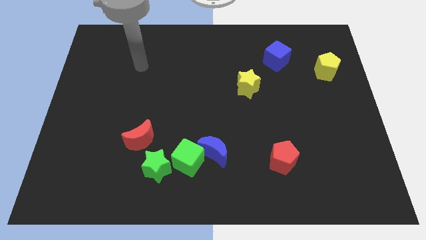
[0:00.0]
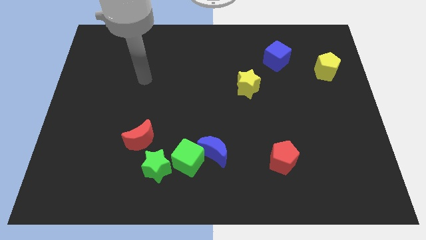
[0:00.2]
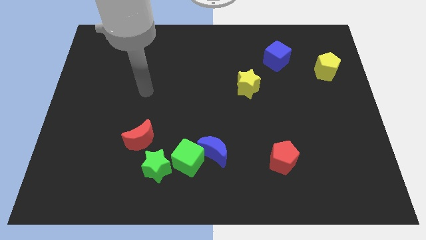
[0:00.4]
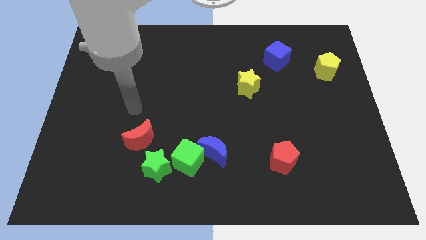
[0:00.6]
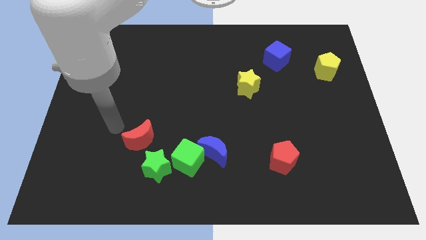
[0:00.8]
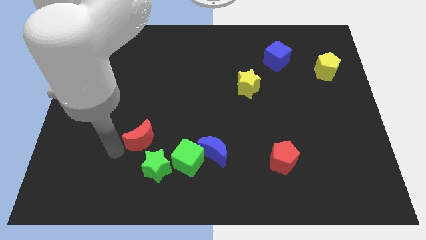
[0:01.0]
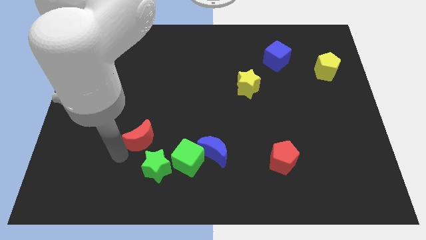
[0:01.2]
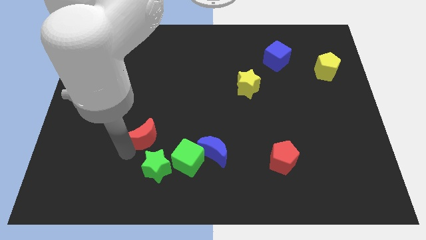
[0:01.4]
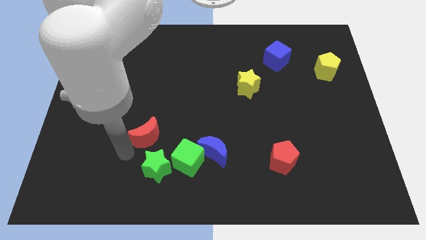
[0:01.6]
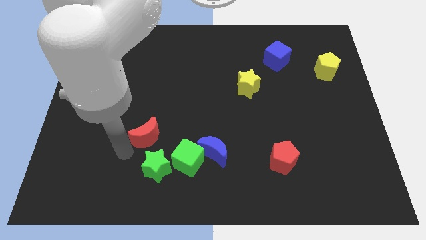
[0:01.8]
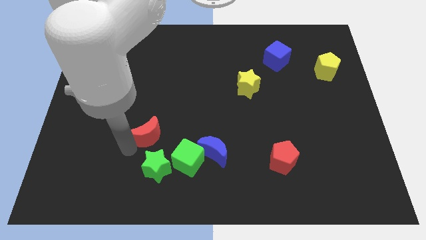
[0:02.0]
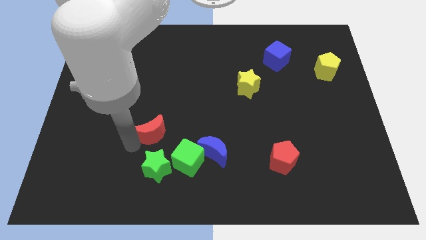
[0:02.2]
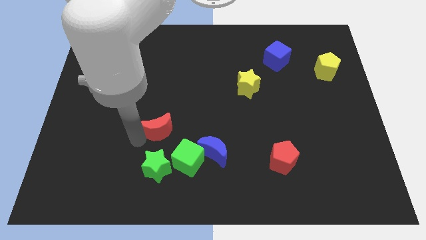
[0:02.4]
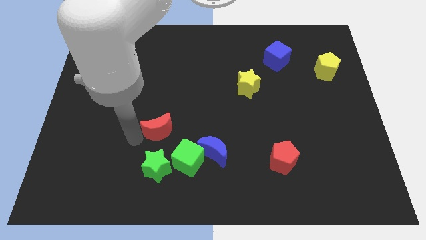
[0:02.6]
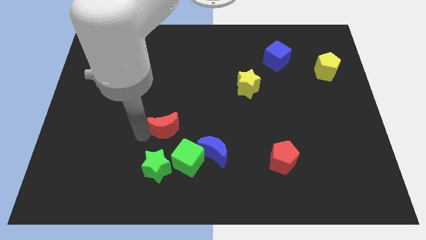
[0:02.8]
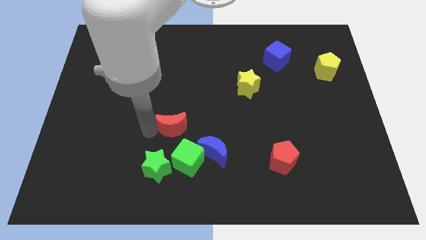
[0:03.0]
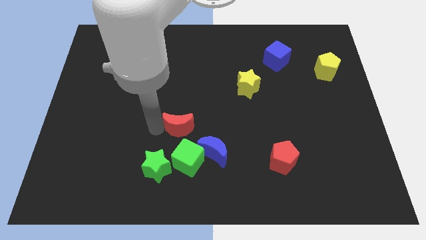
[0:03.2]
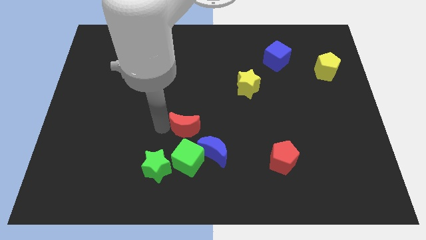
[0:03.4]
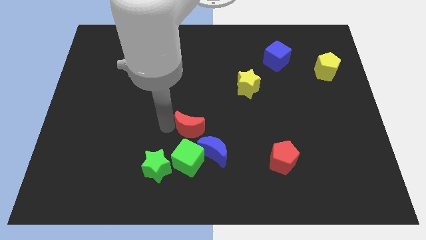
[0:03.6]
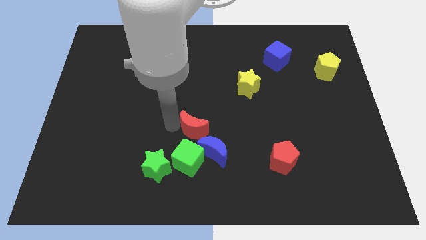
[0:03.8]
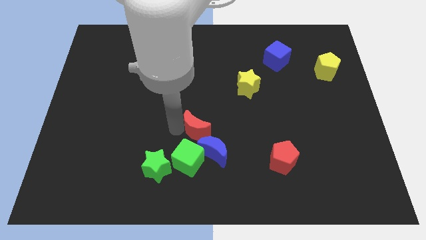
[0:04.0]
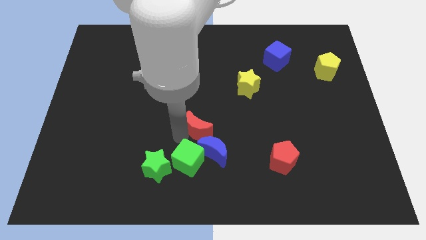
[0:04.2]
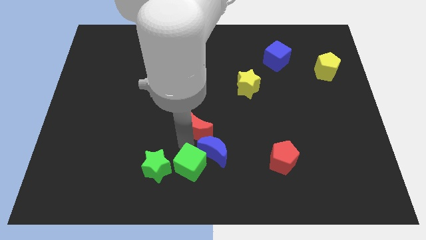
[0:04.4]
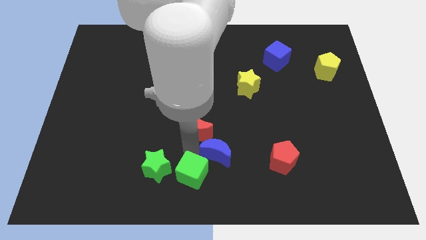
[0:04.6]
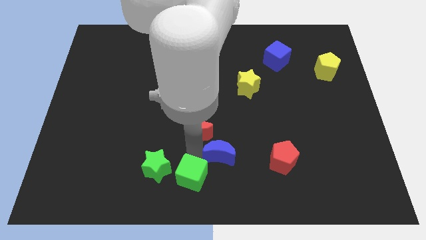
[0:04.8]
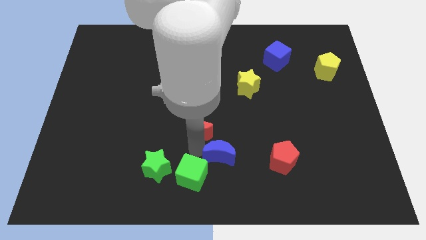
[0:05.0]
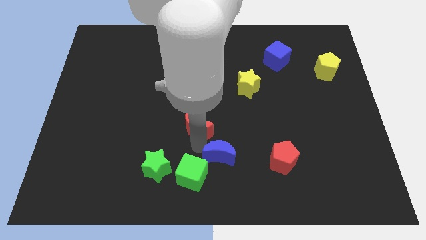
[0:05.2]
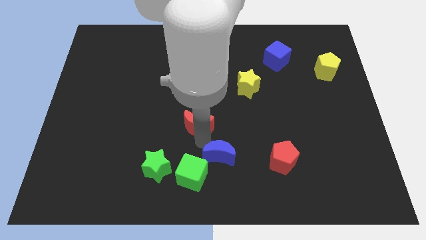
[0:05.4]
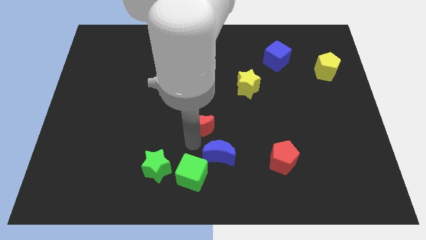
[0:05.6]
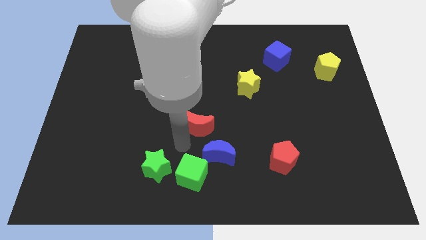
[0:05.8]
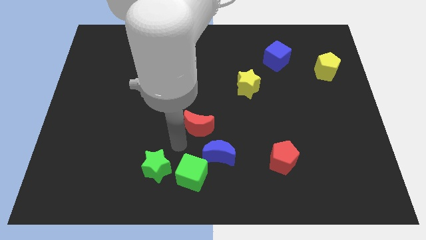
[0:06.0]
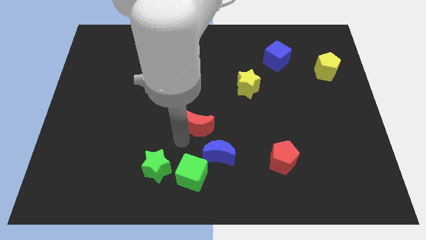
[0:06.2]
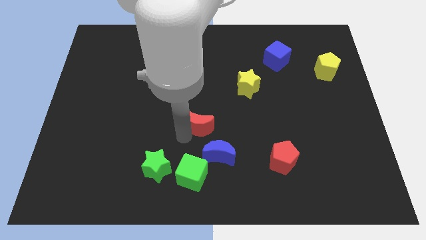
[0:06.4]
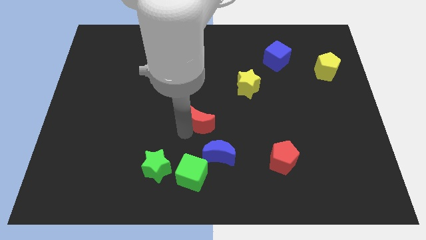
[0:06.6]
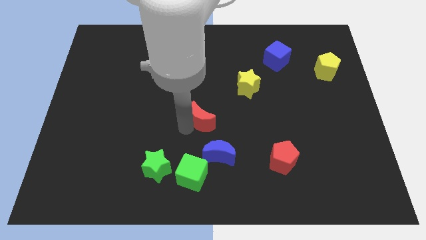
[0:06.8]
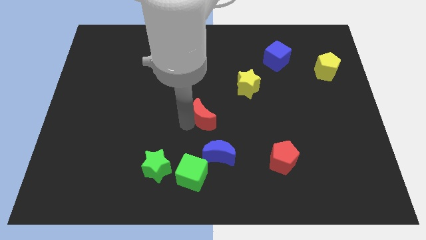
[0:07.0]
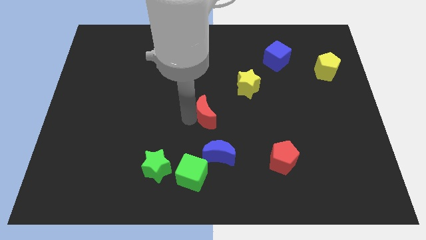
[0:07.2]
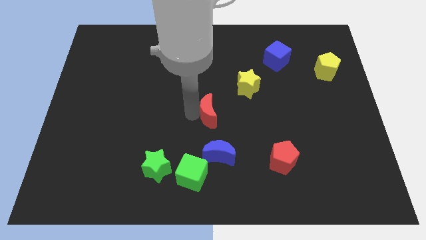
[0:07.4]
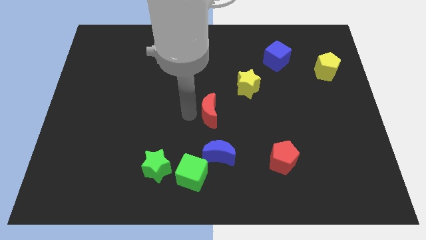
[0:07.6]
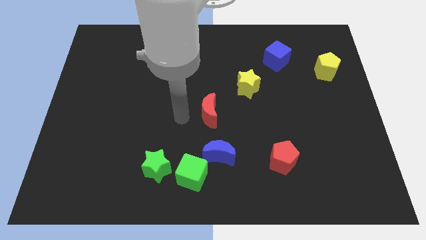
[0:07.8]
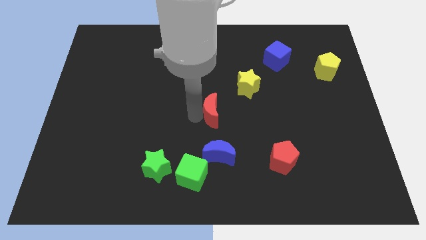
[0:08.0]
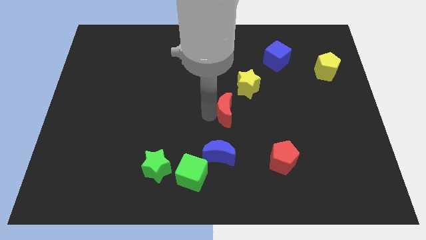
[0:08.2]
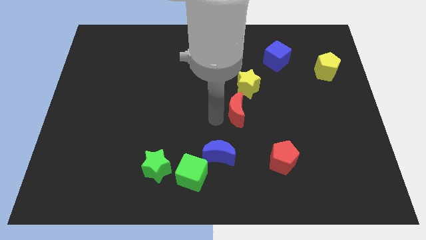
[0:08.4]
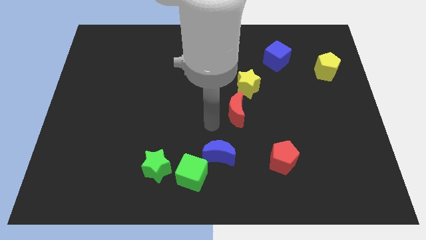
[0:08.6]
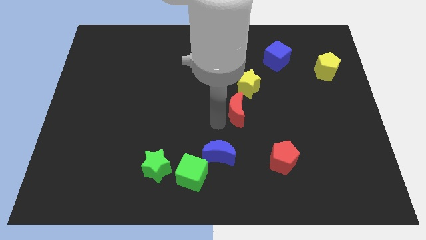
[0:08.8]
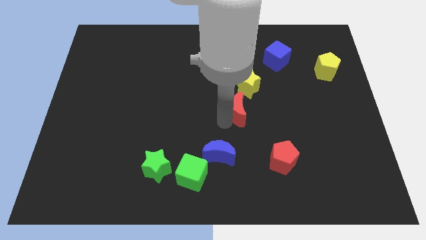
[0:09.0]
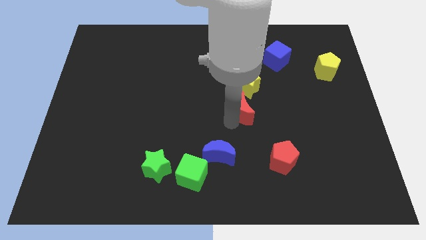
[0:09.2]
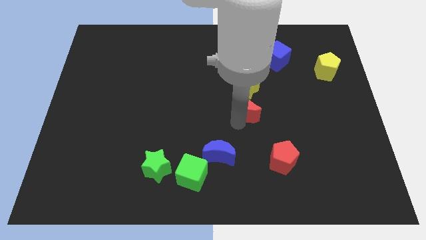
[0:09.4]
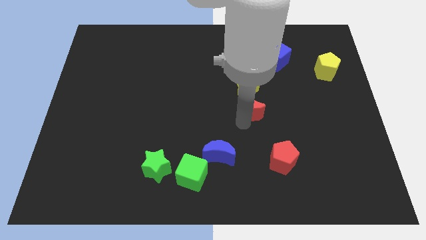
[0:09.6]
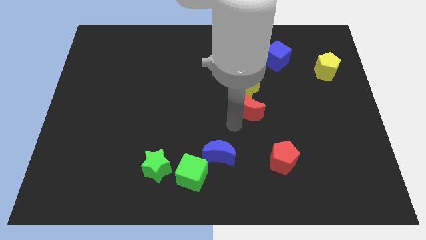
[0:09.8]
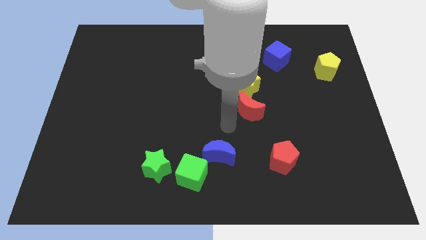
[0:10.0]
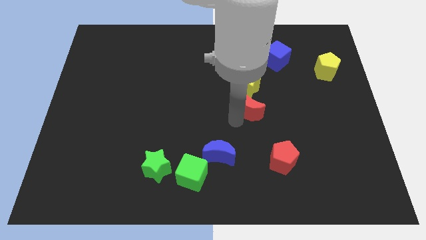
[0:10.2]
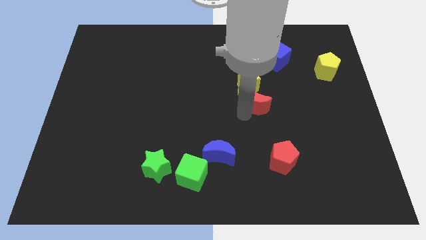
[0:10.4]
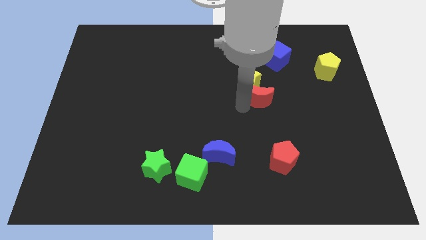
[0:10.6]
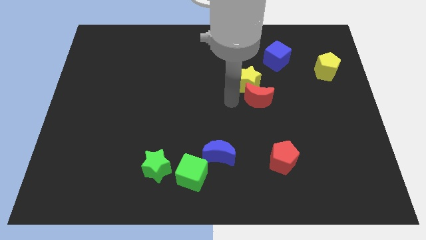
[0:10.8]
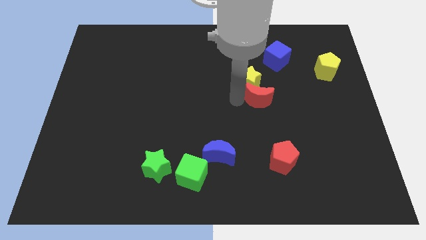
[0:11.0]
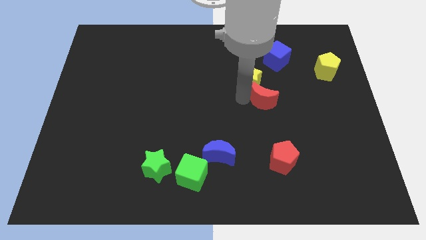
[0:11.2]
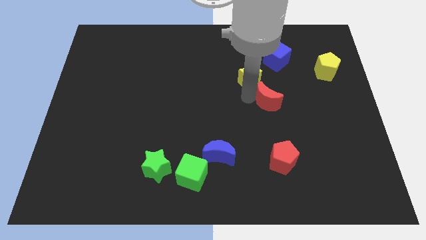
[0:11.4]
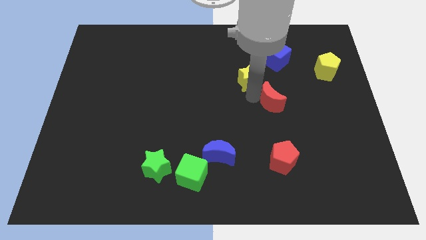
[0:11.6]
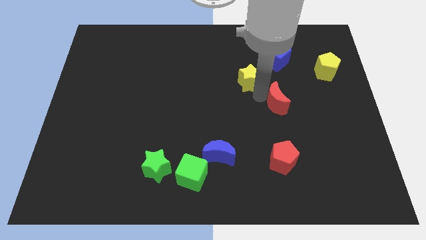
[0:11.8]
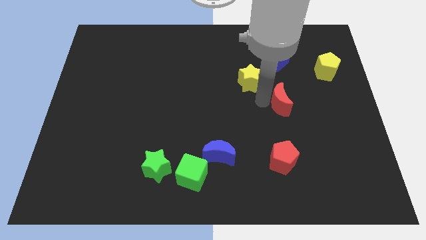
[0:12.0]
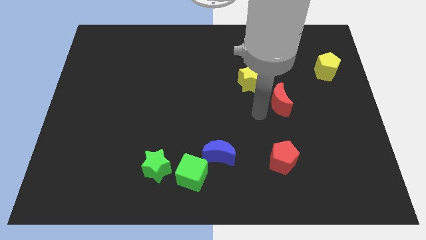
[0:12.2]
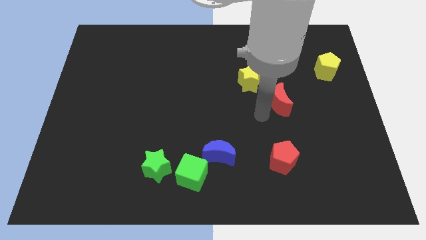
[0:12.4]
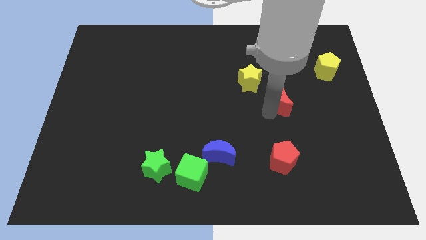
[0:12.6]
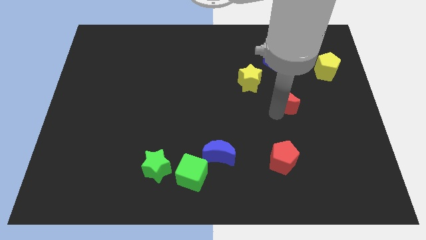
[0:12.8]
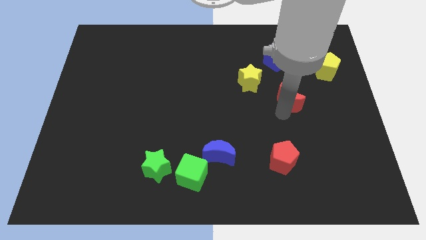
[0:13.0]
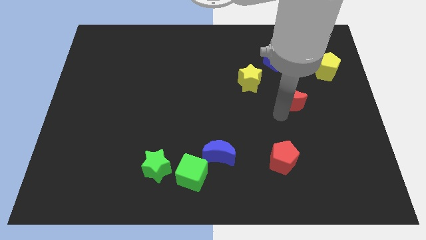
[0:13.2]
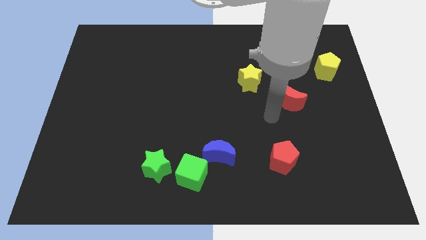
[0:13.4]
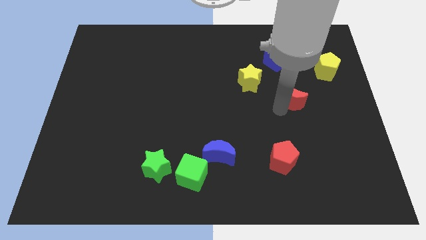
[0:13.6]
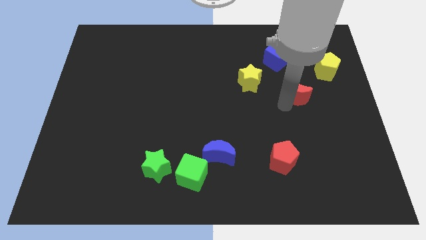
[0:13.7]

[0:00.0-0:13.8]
put the red moon diagonally down and to the left of the yellow pentagon
